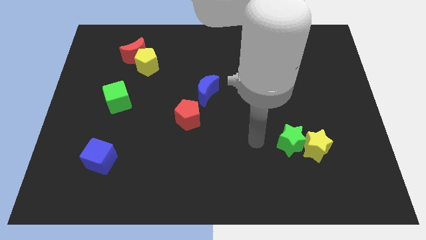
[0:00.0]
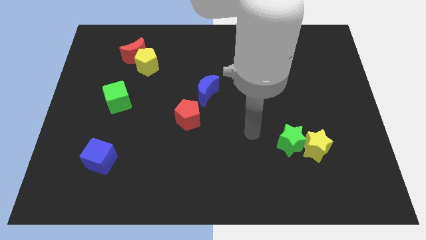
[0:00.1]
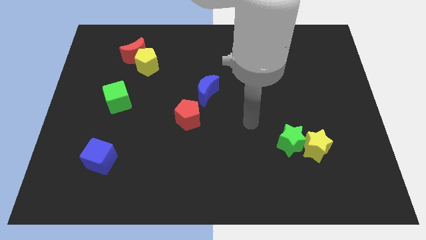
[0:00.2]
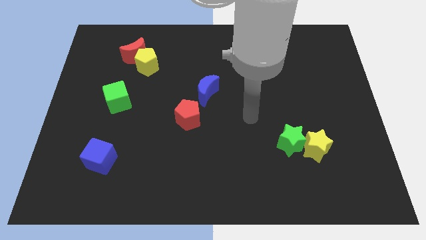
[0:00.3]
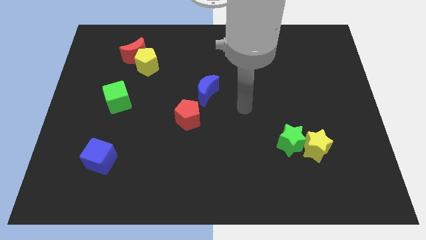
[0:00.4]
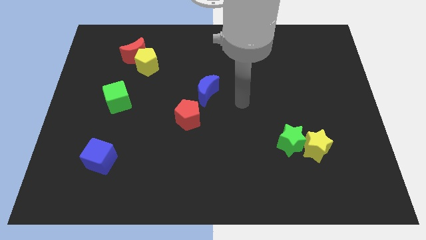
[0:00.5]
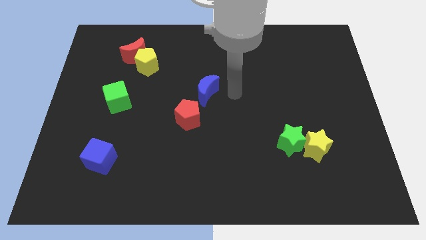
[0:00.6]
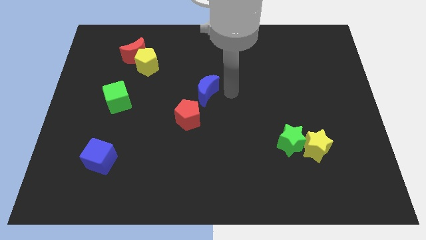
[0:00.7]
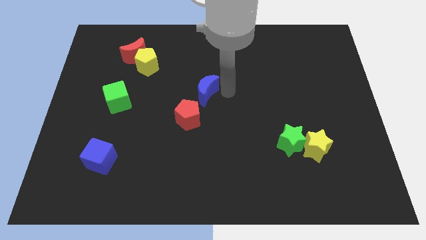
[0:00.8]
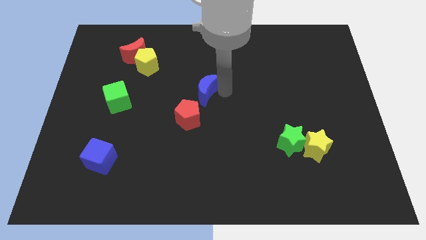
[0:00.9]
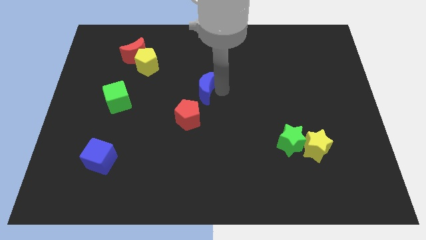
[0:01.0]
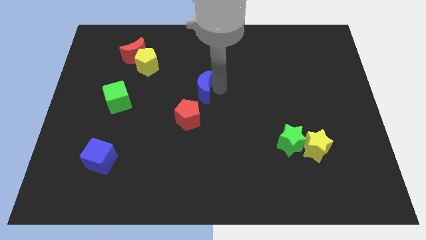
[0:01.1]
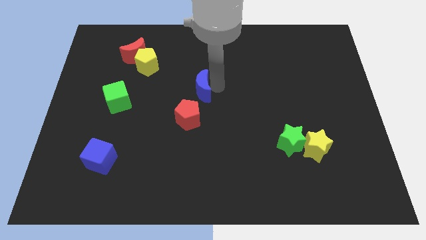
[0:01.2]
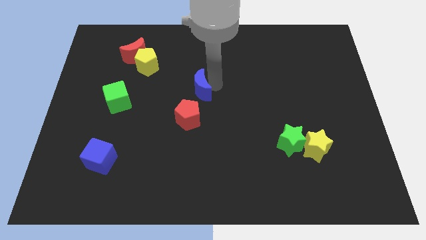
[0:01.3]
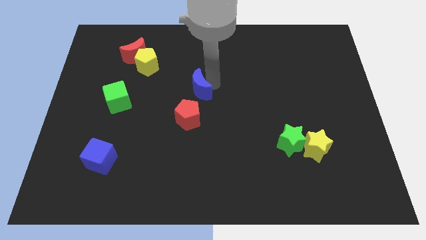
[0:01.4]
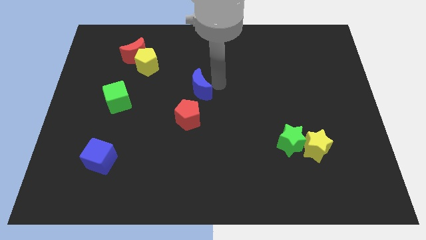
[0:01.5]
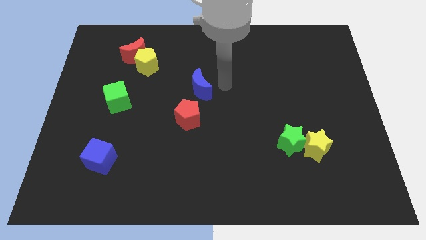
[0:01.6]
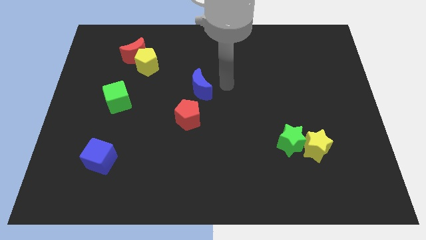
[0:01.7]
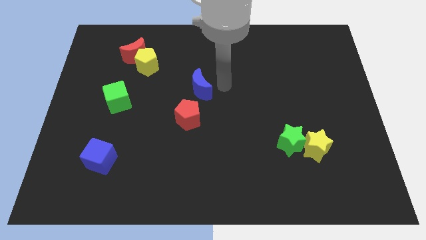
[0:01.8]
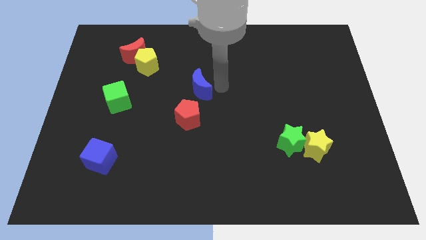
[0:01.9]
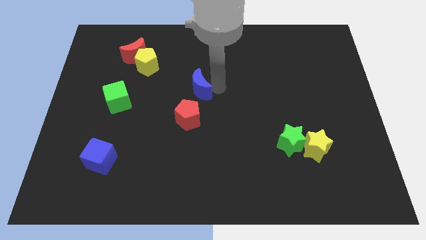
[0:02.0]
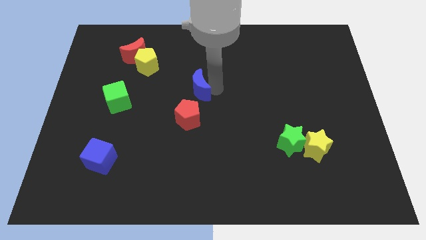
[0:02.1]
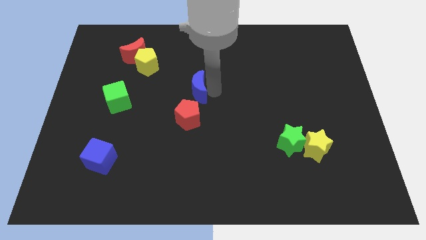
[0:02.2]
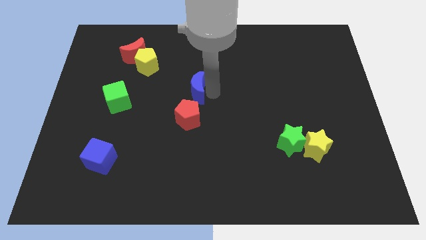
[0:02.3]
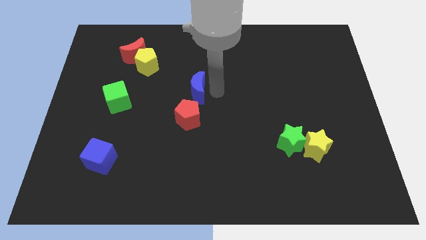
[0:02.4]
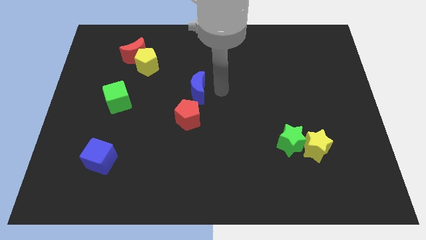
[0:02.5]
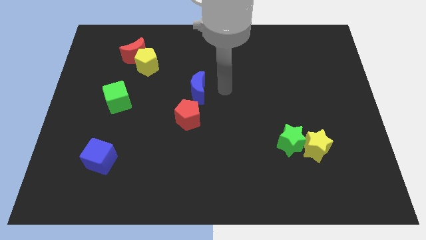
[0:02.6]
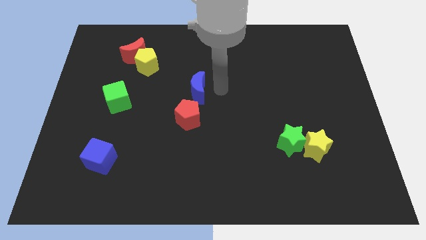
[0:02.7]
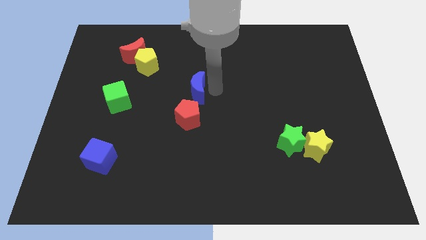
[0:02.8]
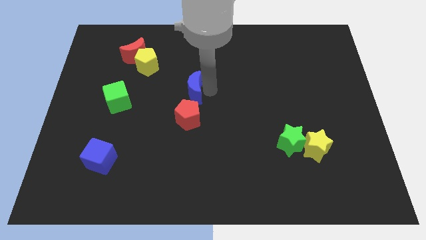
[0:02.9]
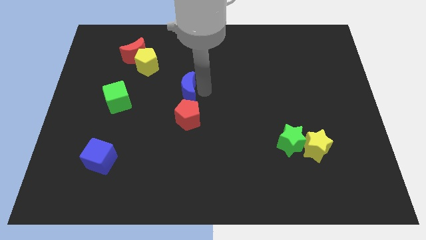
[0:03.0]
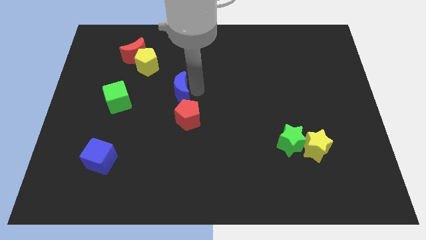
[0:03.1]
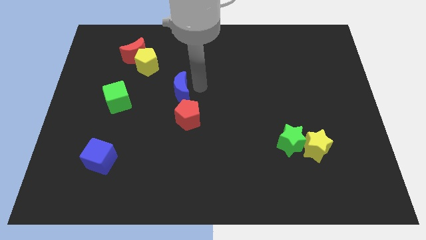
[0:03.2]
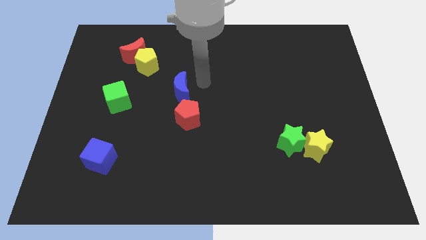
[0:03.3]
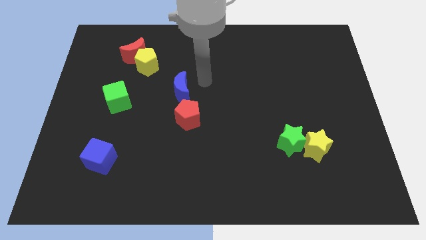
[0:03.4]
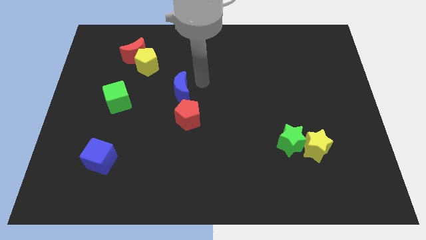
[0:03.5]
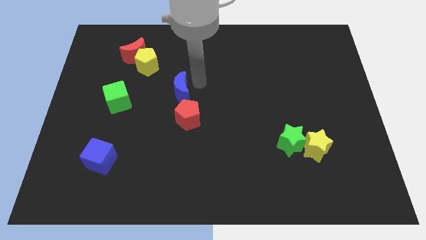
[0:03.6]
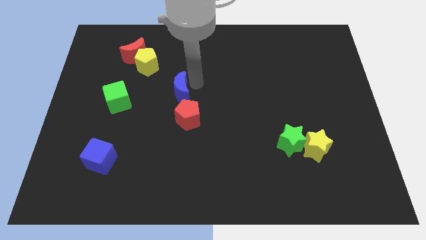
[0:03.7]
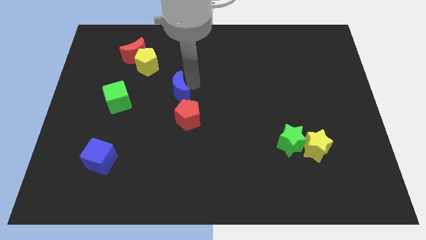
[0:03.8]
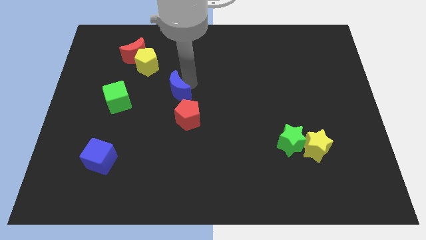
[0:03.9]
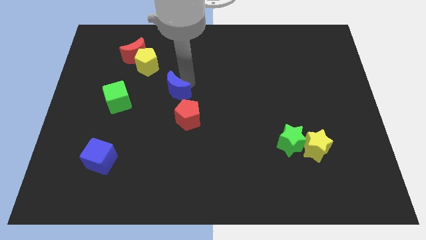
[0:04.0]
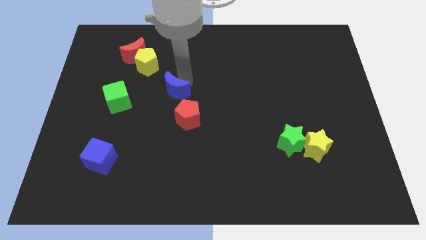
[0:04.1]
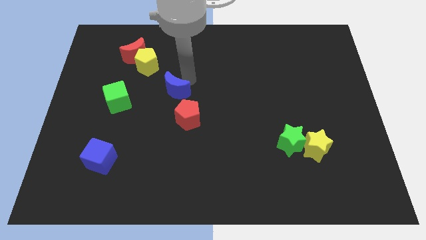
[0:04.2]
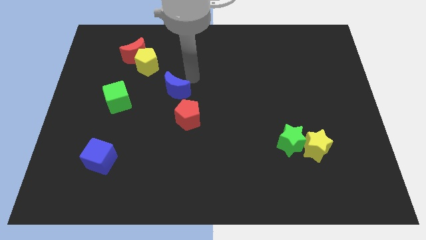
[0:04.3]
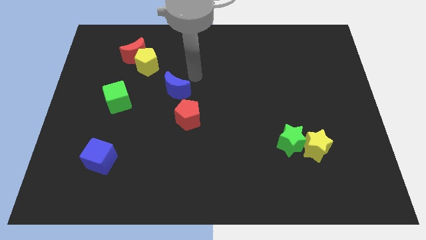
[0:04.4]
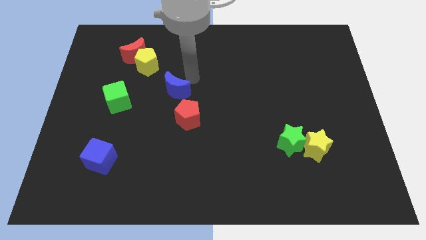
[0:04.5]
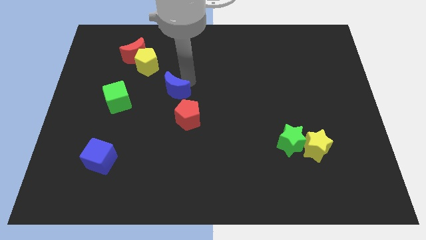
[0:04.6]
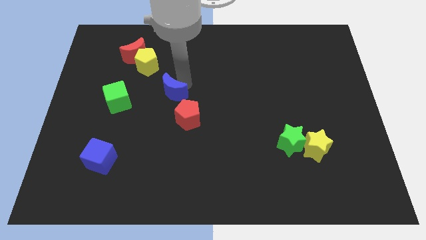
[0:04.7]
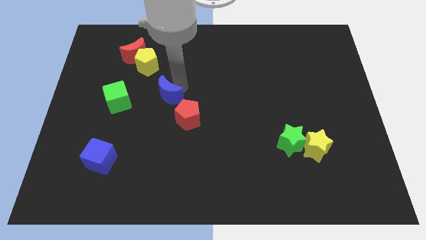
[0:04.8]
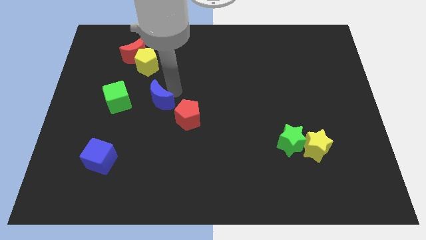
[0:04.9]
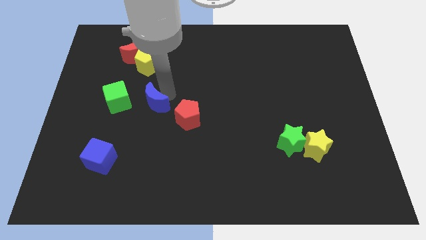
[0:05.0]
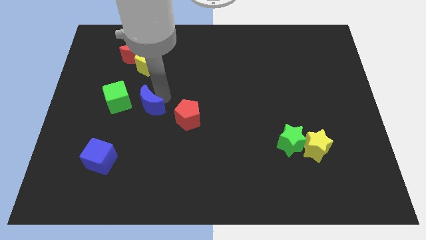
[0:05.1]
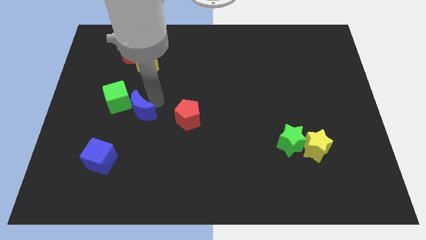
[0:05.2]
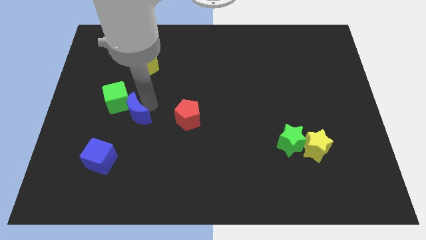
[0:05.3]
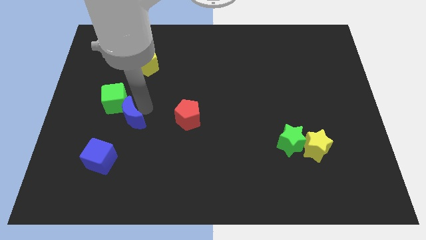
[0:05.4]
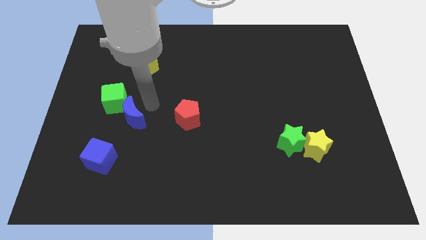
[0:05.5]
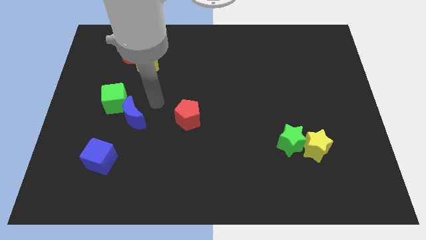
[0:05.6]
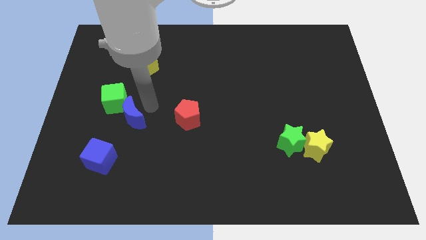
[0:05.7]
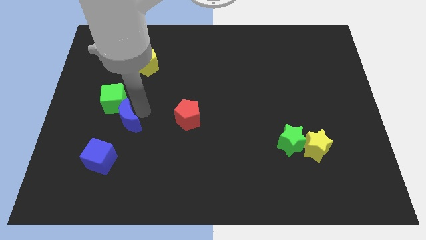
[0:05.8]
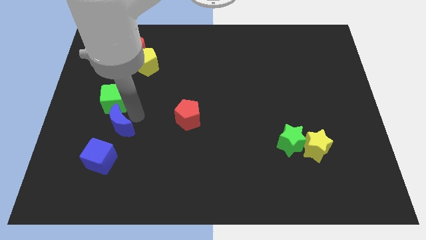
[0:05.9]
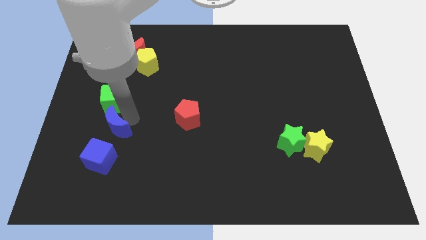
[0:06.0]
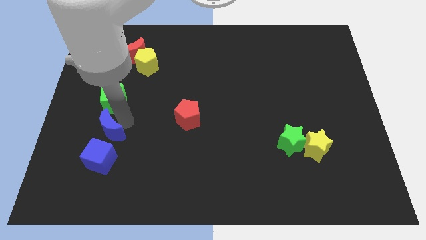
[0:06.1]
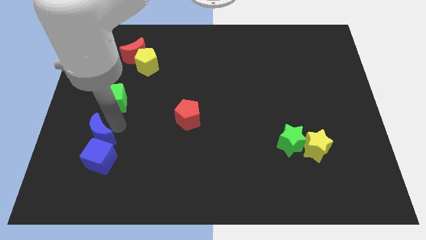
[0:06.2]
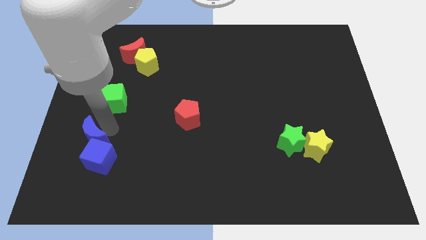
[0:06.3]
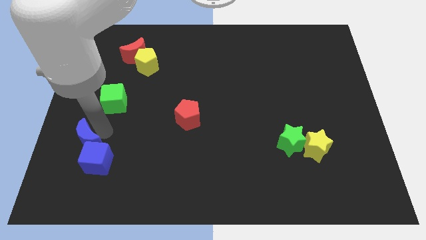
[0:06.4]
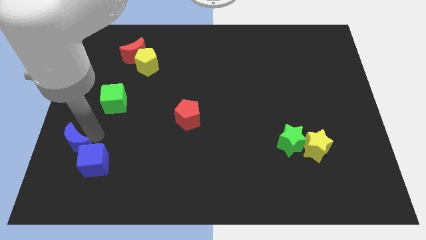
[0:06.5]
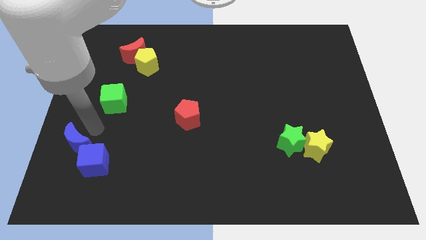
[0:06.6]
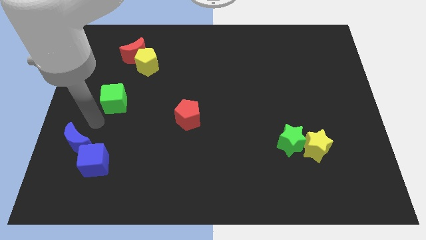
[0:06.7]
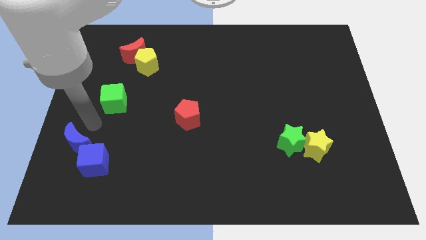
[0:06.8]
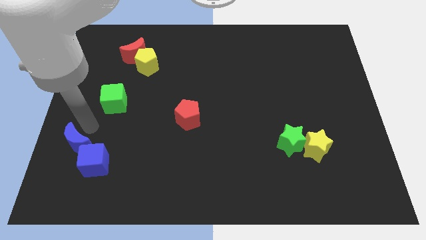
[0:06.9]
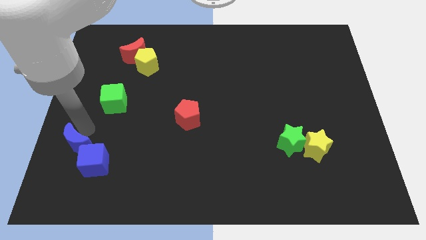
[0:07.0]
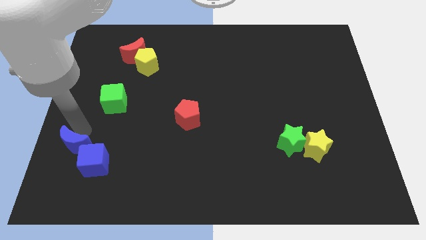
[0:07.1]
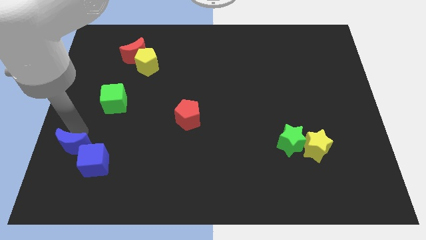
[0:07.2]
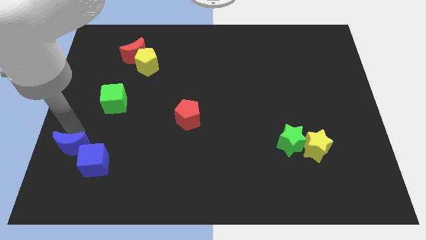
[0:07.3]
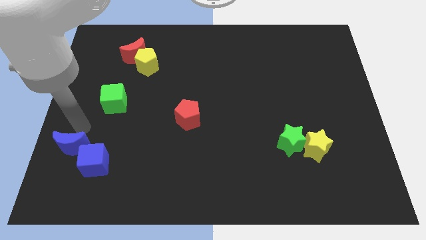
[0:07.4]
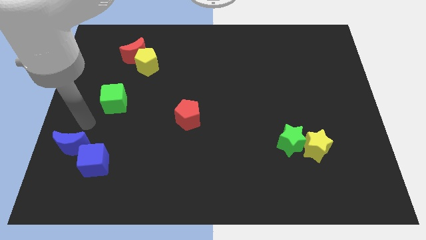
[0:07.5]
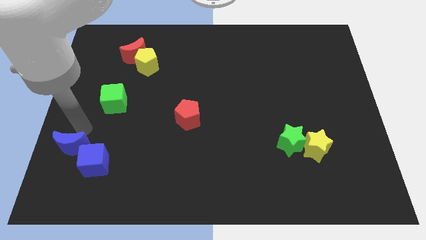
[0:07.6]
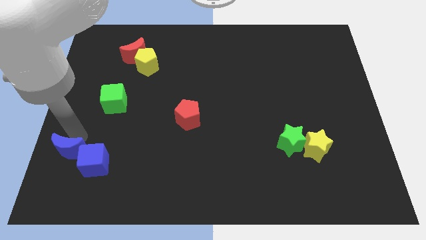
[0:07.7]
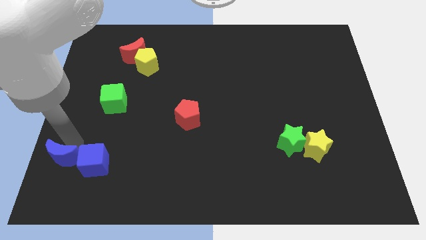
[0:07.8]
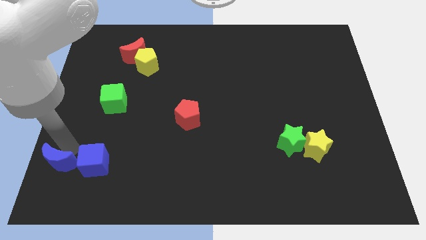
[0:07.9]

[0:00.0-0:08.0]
put the blue moon to the bottom left of the board

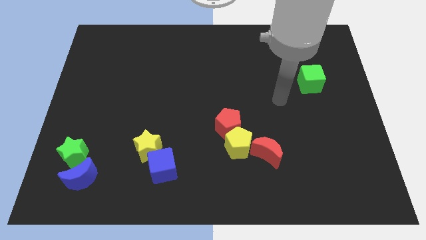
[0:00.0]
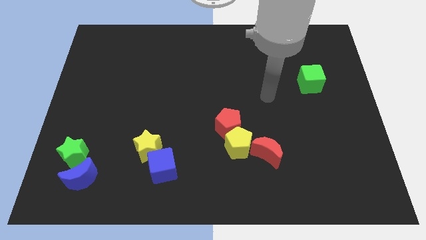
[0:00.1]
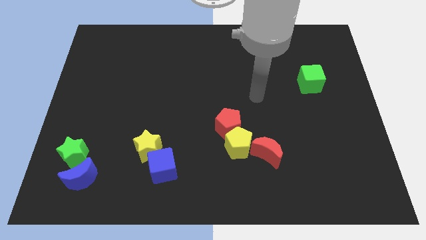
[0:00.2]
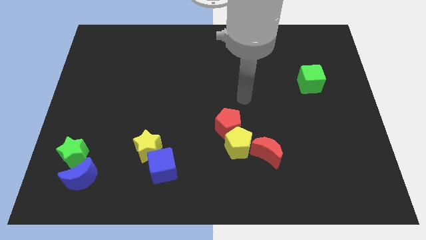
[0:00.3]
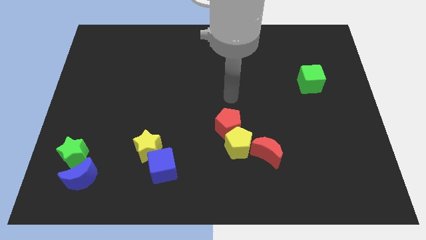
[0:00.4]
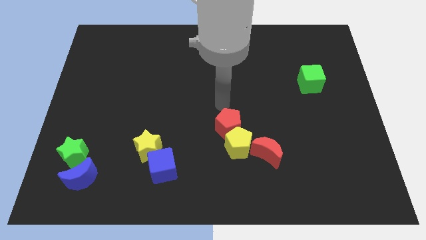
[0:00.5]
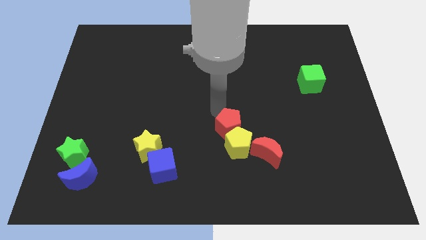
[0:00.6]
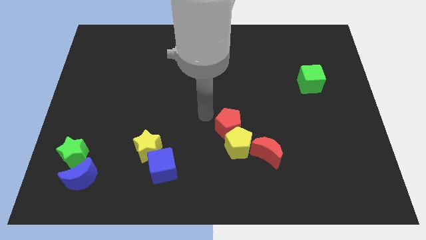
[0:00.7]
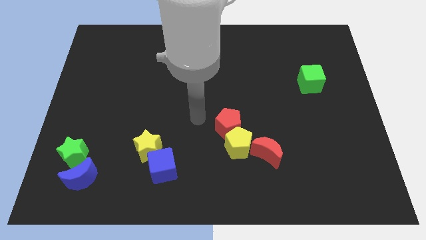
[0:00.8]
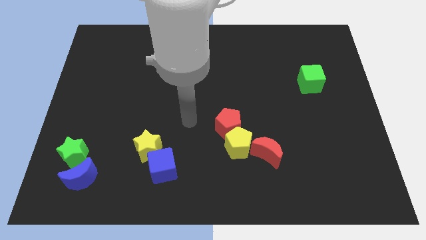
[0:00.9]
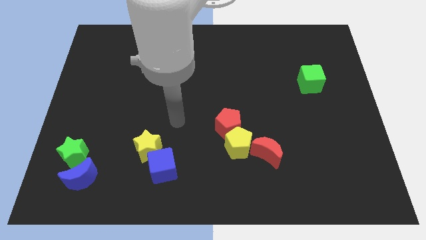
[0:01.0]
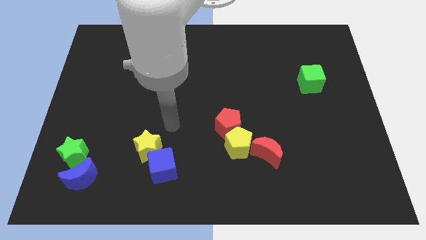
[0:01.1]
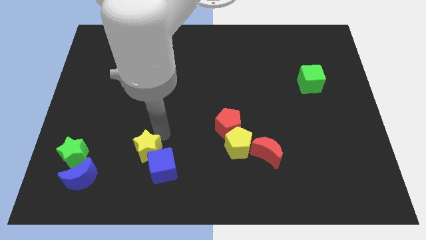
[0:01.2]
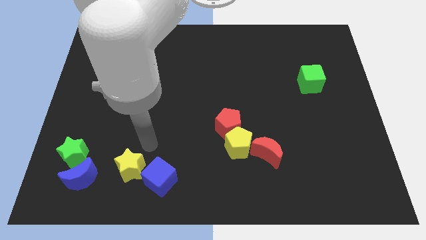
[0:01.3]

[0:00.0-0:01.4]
move the blue cube to the bottom side
